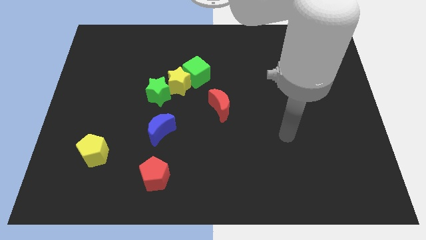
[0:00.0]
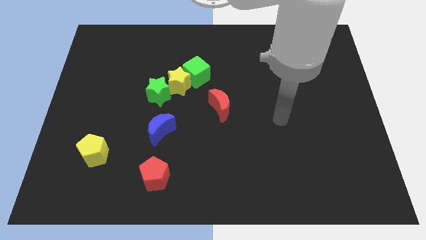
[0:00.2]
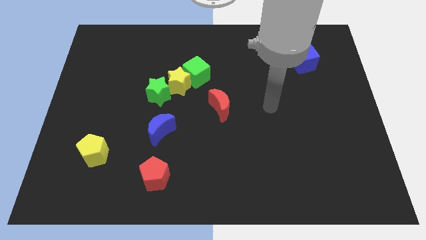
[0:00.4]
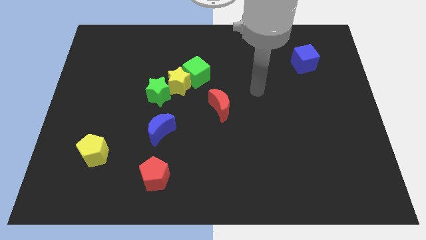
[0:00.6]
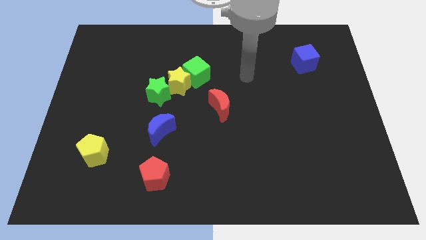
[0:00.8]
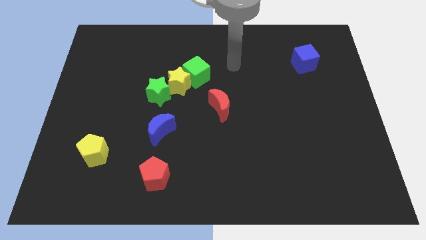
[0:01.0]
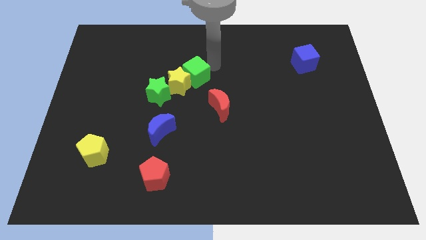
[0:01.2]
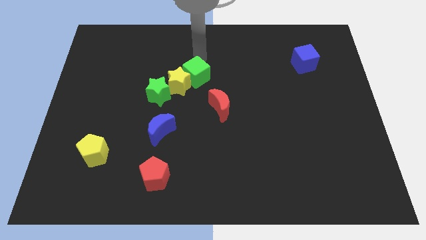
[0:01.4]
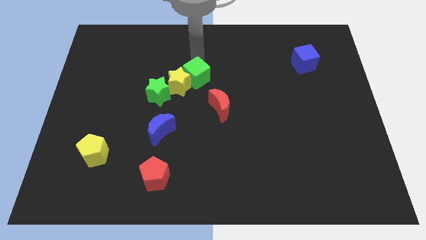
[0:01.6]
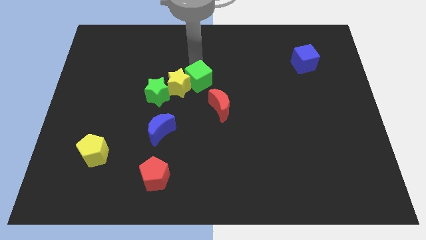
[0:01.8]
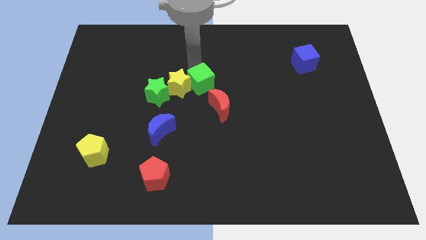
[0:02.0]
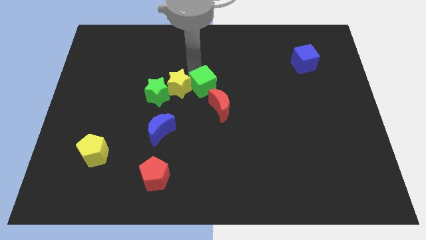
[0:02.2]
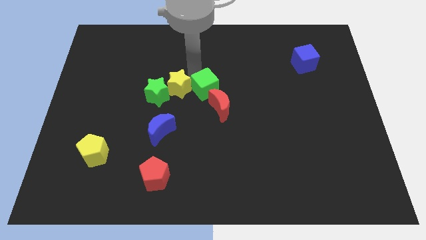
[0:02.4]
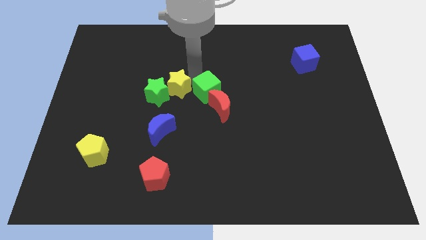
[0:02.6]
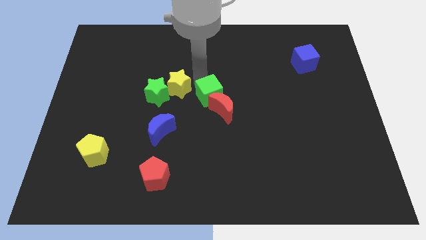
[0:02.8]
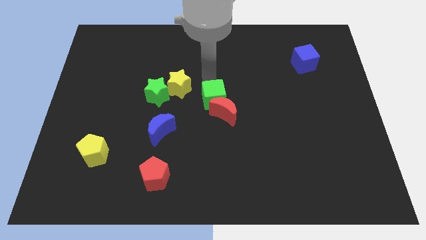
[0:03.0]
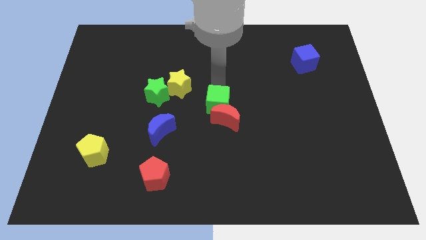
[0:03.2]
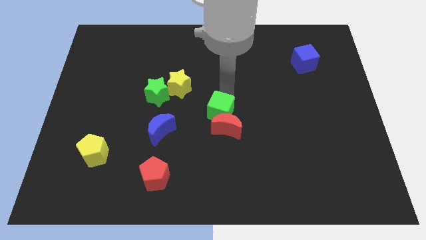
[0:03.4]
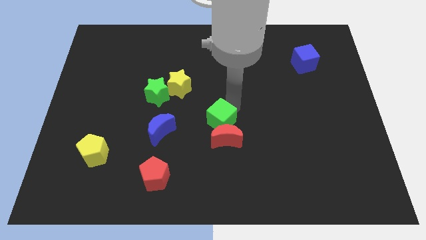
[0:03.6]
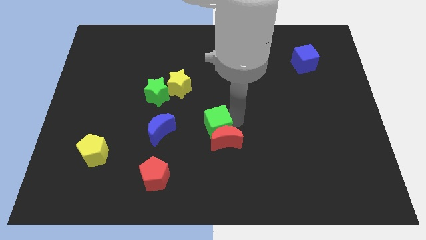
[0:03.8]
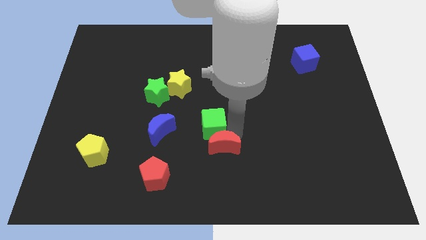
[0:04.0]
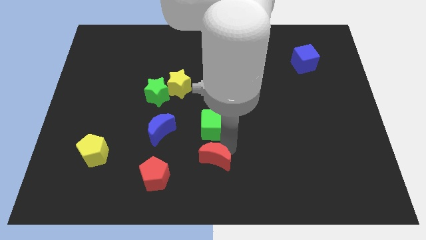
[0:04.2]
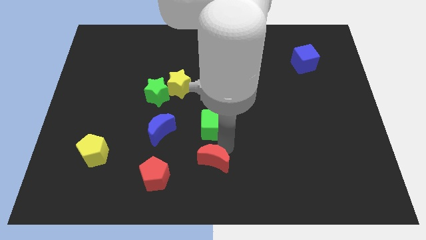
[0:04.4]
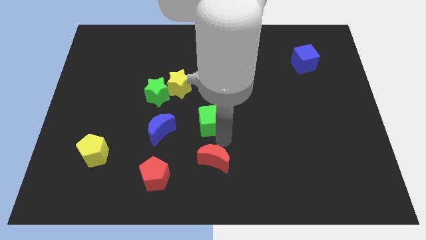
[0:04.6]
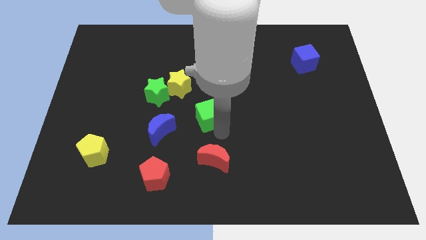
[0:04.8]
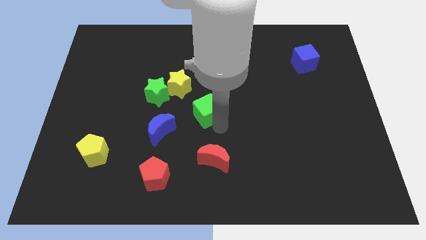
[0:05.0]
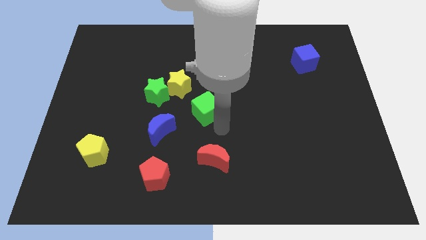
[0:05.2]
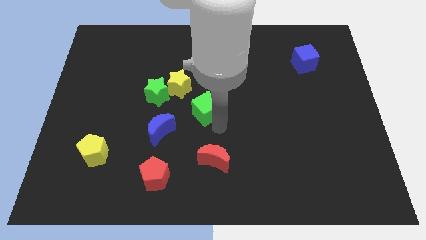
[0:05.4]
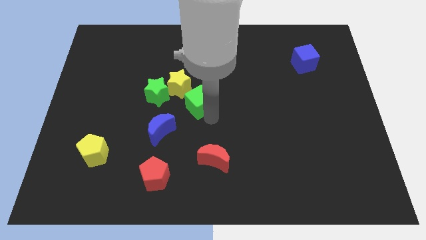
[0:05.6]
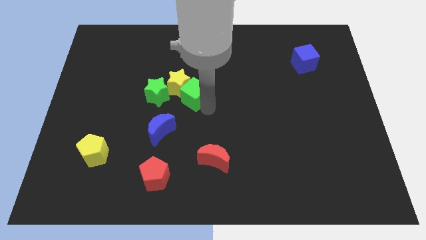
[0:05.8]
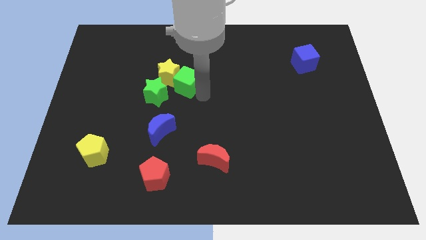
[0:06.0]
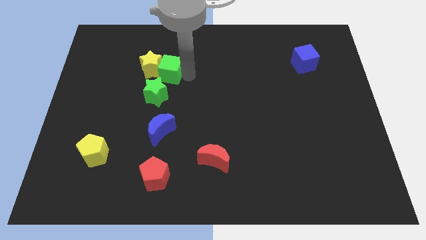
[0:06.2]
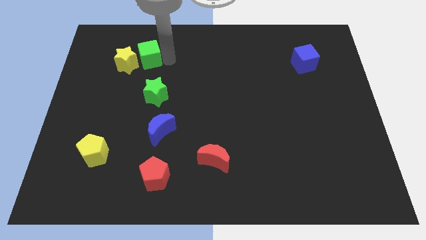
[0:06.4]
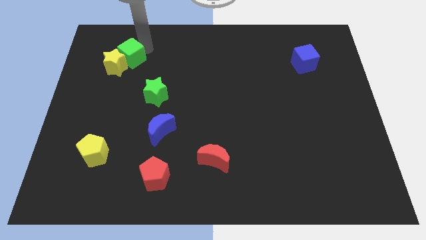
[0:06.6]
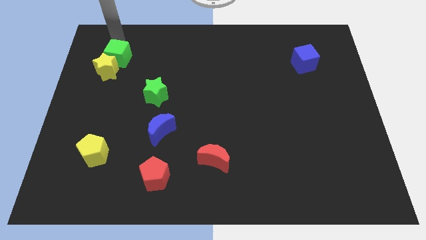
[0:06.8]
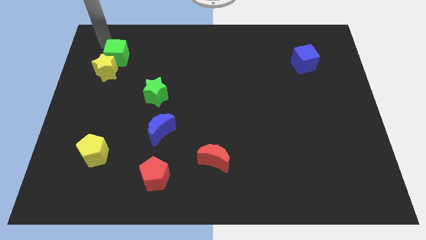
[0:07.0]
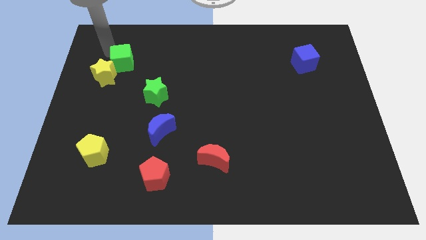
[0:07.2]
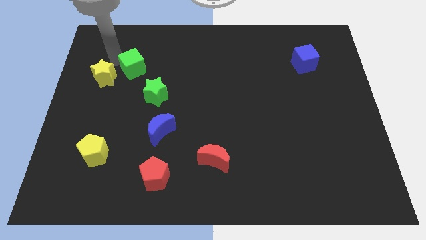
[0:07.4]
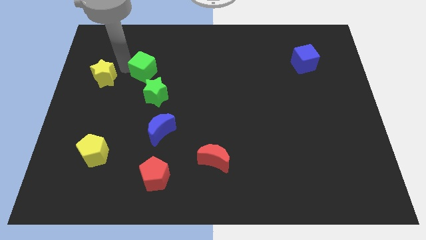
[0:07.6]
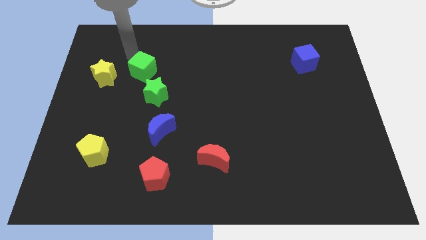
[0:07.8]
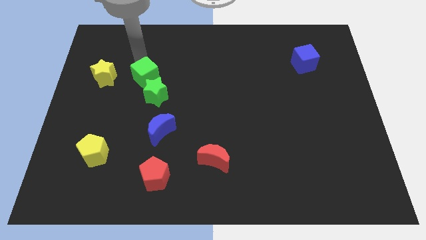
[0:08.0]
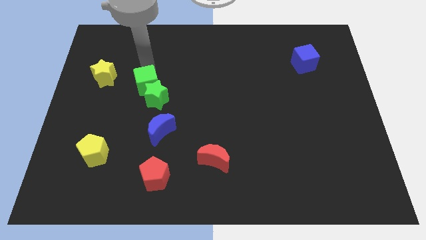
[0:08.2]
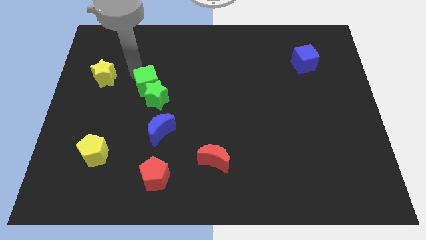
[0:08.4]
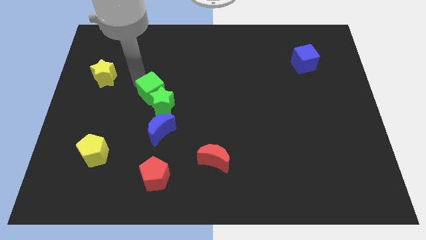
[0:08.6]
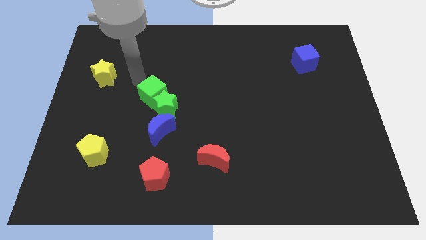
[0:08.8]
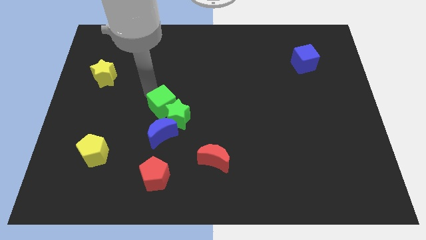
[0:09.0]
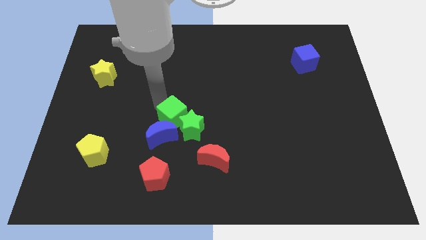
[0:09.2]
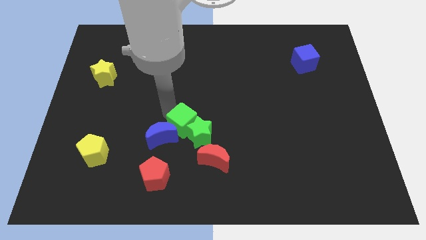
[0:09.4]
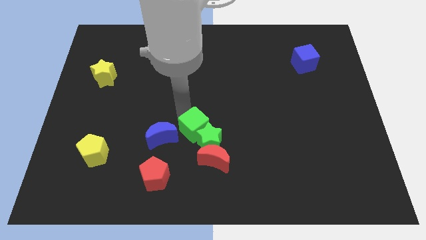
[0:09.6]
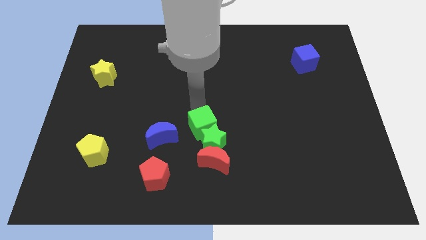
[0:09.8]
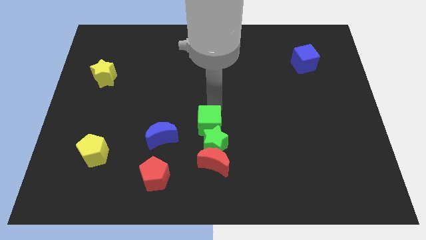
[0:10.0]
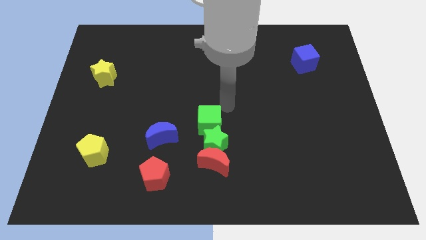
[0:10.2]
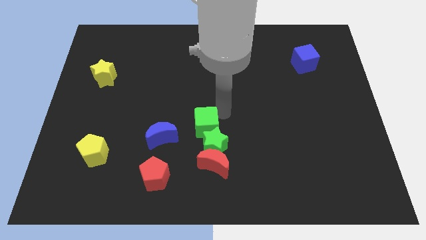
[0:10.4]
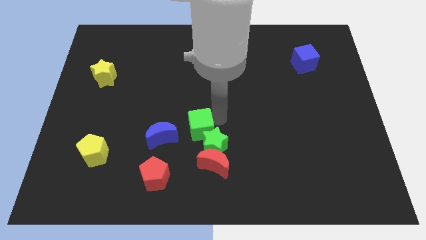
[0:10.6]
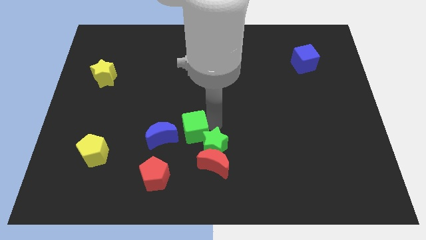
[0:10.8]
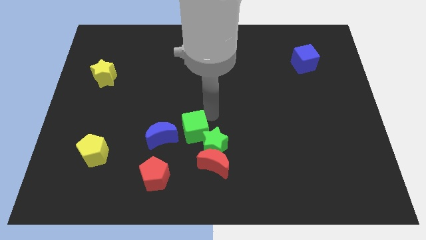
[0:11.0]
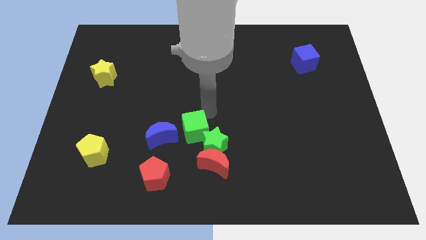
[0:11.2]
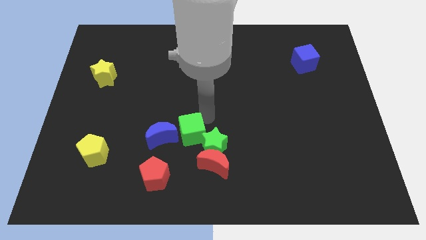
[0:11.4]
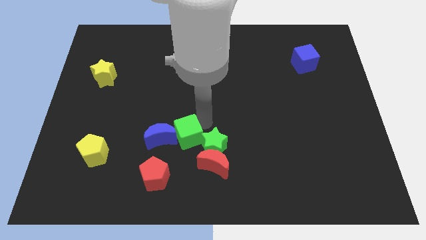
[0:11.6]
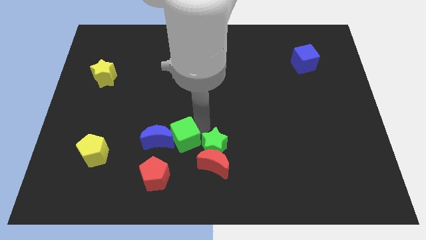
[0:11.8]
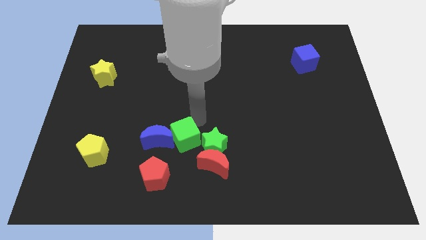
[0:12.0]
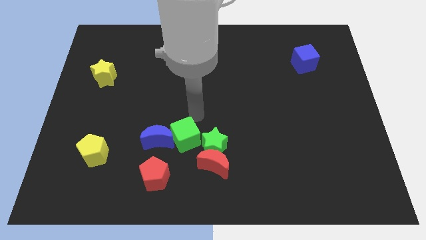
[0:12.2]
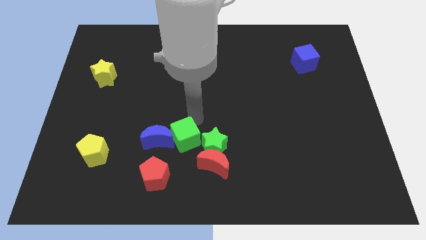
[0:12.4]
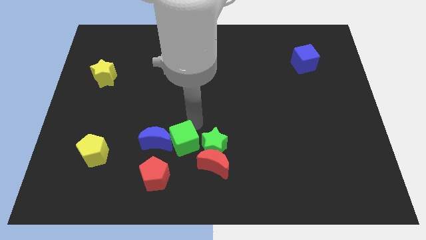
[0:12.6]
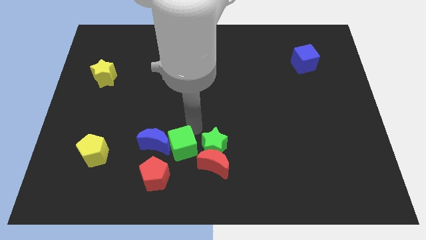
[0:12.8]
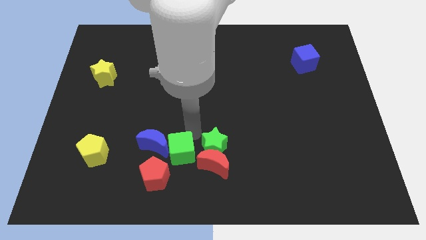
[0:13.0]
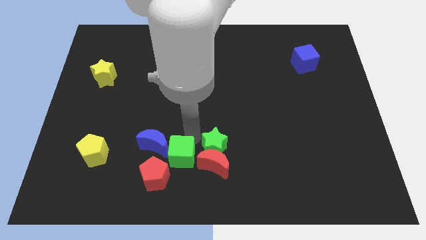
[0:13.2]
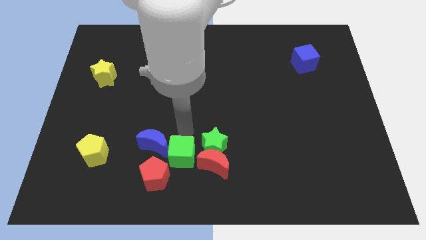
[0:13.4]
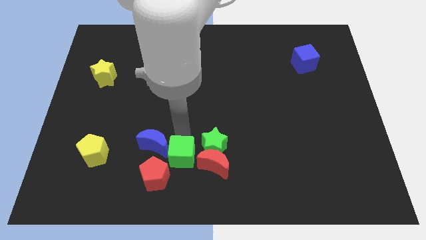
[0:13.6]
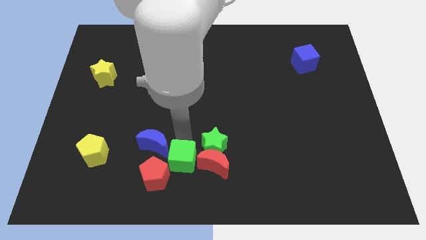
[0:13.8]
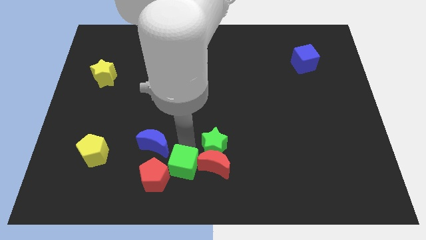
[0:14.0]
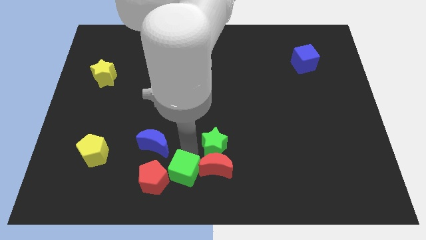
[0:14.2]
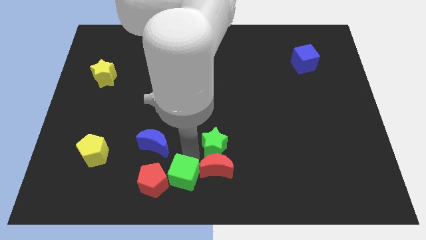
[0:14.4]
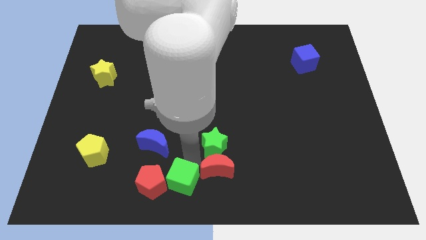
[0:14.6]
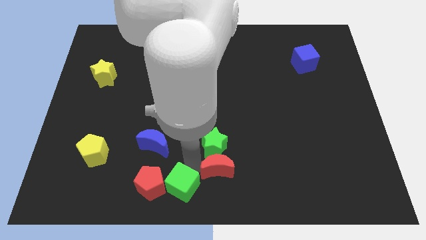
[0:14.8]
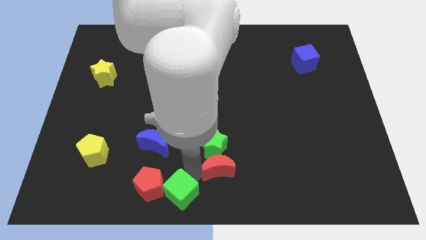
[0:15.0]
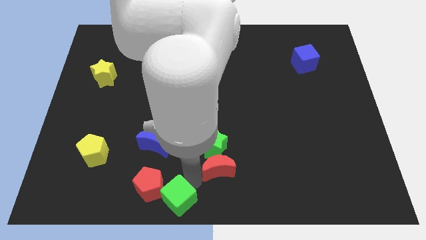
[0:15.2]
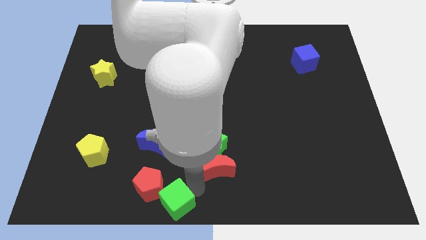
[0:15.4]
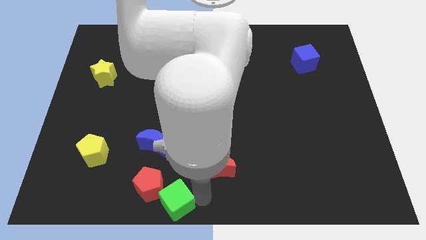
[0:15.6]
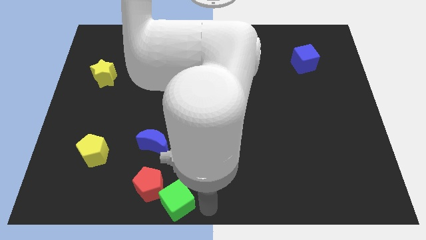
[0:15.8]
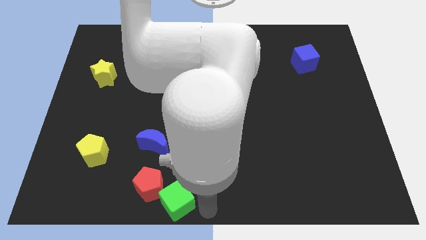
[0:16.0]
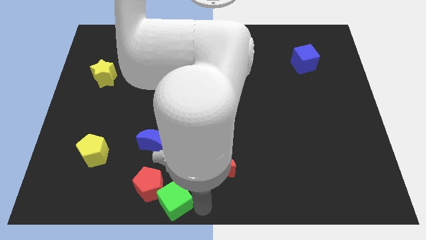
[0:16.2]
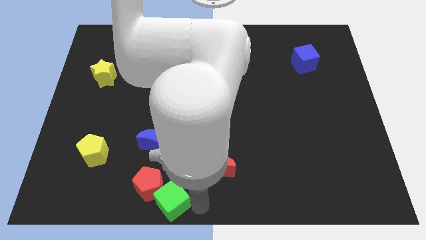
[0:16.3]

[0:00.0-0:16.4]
push the green cube below the blue moon
